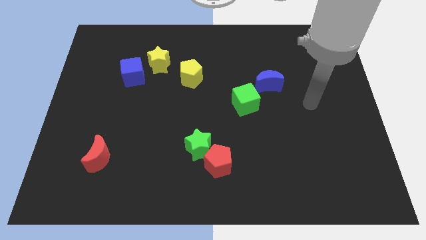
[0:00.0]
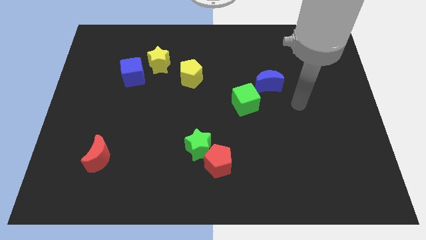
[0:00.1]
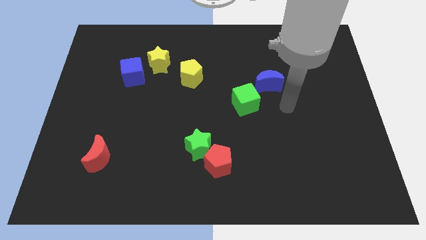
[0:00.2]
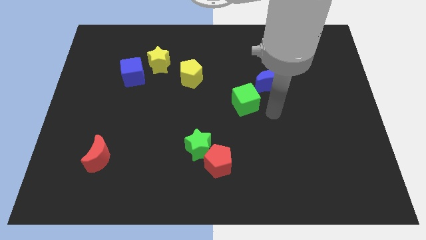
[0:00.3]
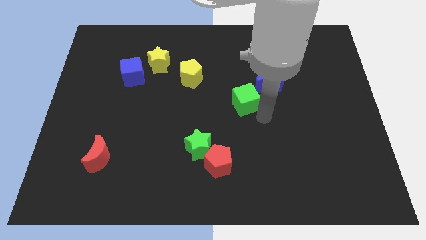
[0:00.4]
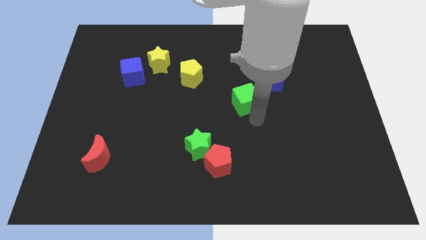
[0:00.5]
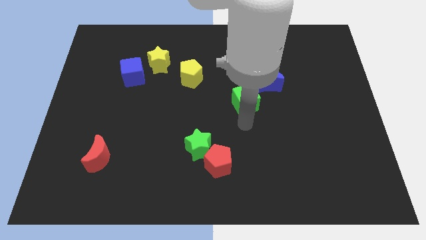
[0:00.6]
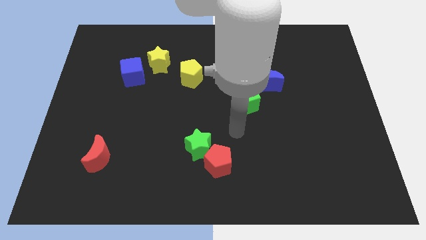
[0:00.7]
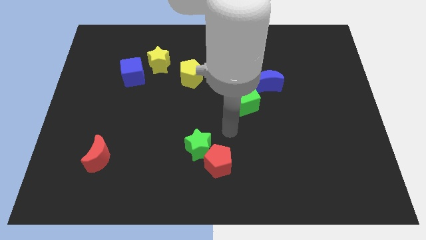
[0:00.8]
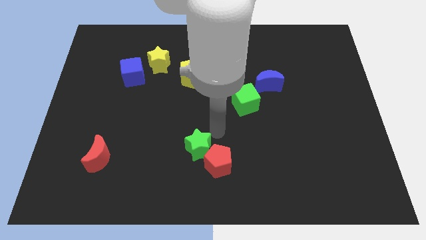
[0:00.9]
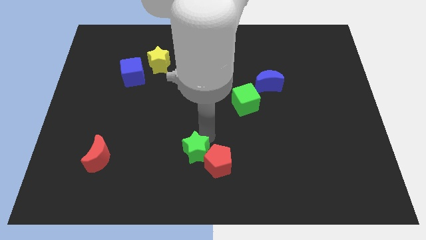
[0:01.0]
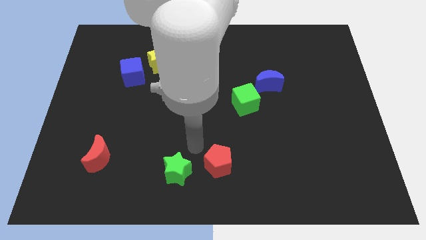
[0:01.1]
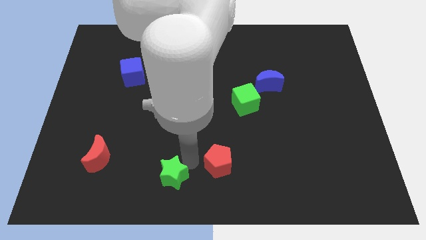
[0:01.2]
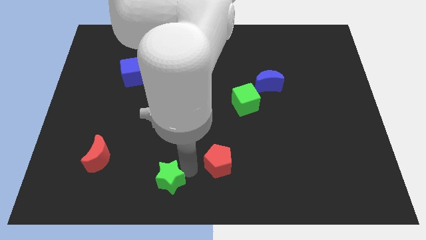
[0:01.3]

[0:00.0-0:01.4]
move the red pentagon away from the green star

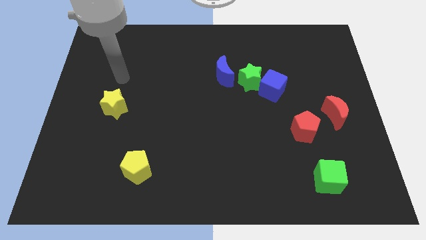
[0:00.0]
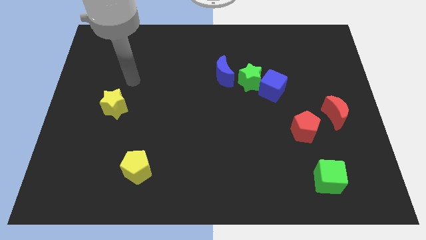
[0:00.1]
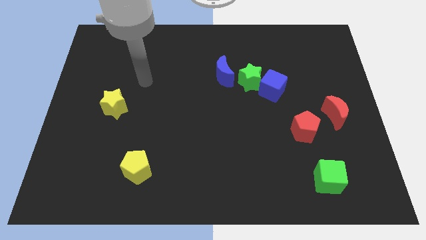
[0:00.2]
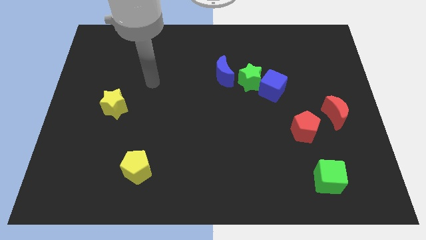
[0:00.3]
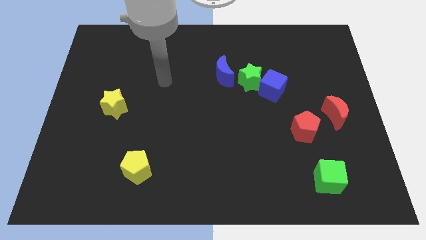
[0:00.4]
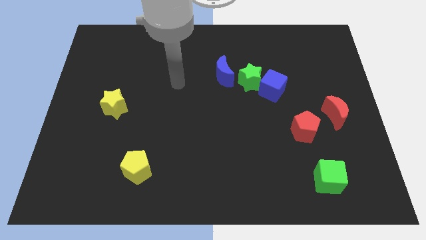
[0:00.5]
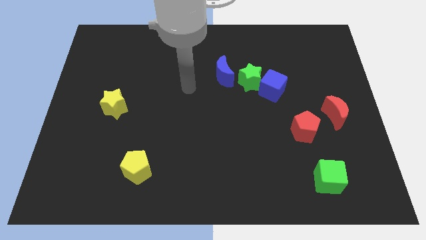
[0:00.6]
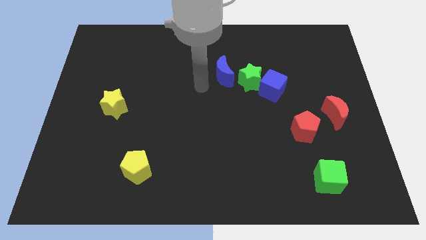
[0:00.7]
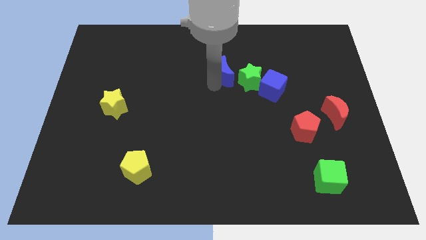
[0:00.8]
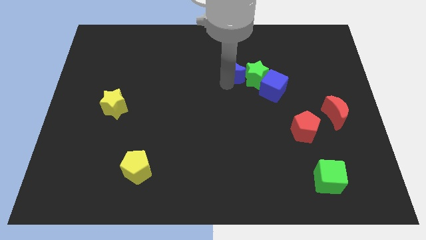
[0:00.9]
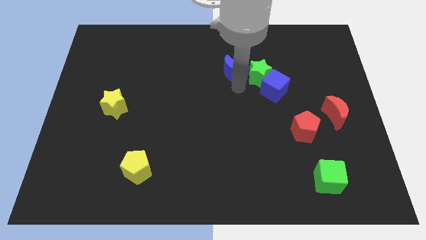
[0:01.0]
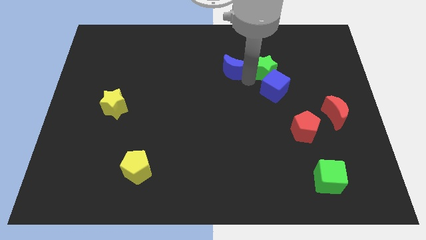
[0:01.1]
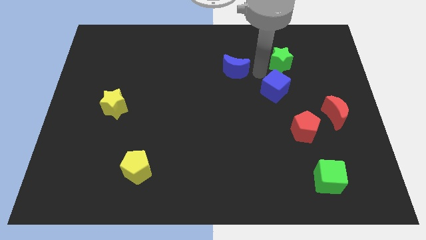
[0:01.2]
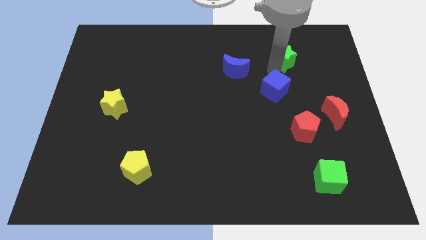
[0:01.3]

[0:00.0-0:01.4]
separate the blue cube from the green star

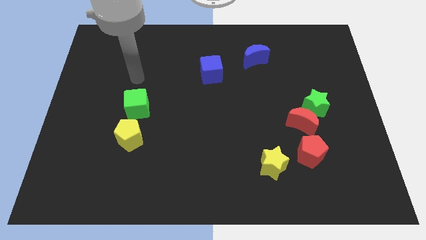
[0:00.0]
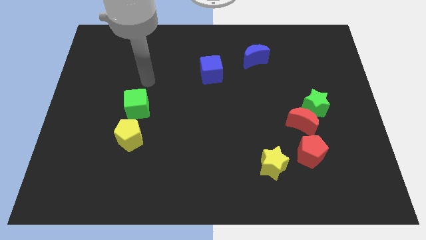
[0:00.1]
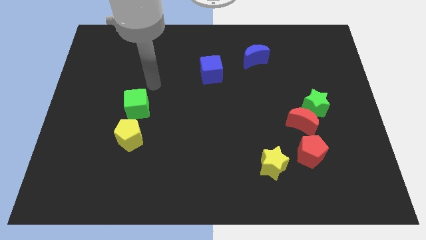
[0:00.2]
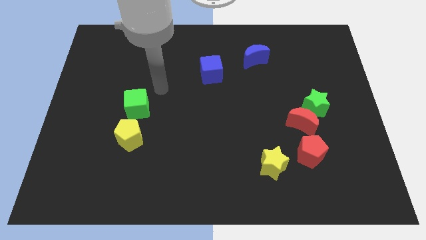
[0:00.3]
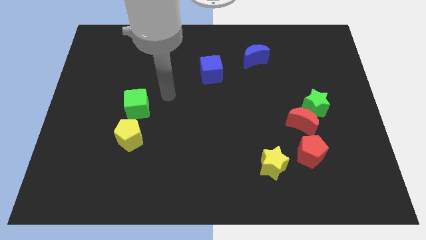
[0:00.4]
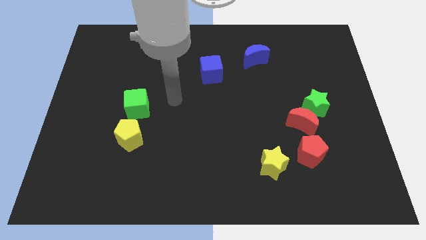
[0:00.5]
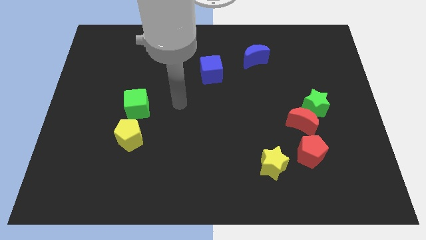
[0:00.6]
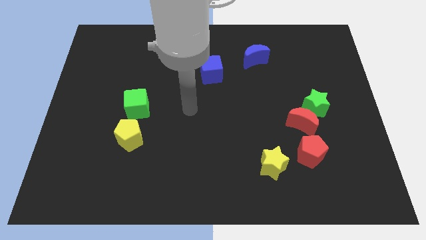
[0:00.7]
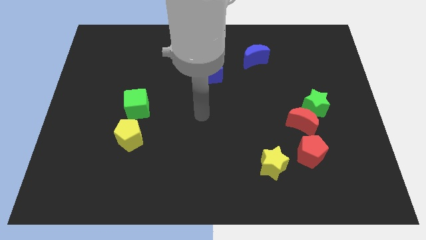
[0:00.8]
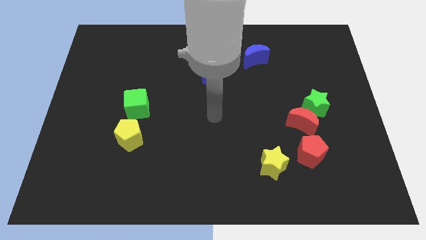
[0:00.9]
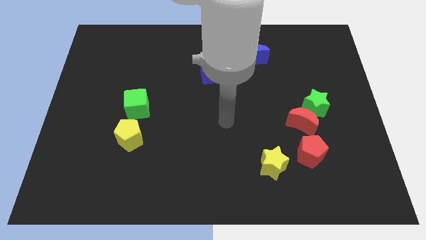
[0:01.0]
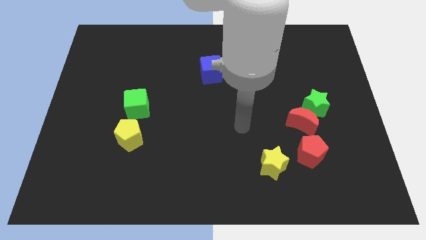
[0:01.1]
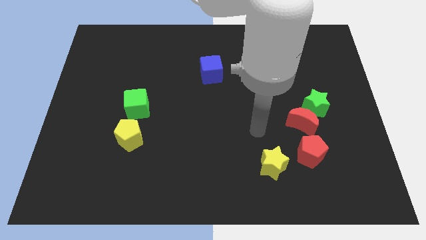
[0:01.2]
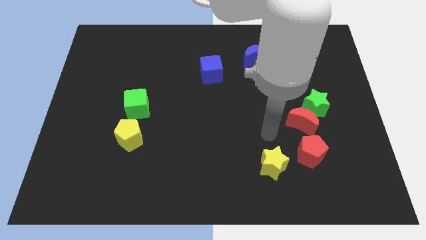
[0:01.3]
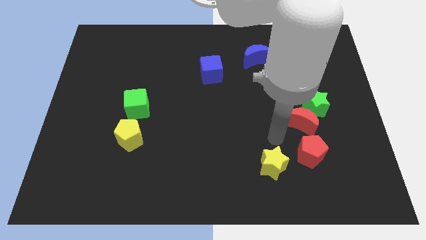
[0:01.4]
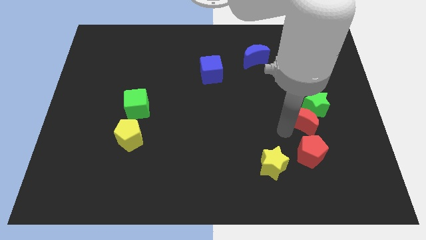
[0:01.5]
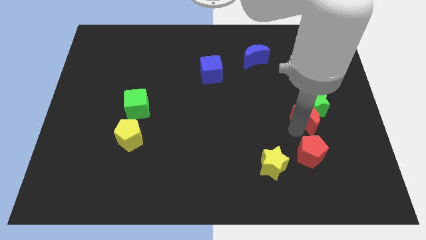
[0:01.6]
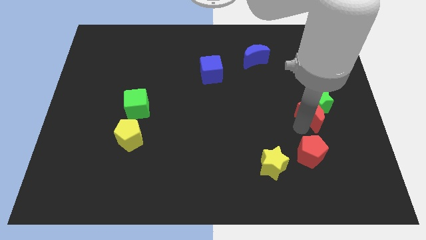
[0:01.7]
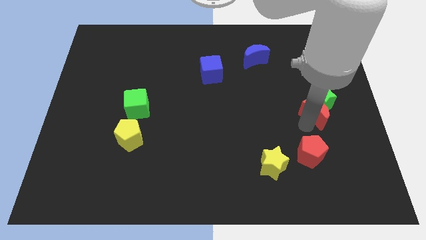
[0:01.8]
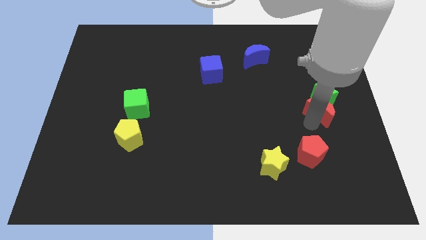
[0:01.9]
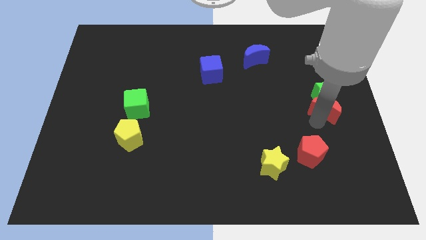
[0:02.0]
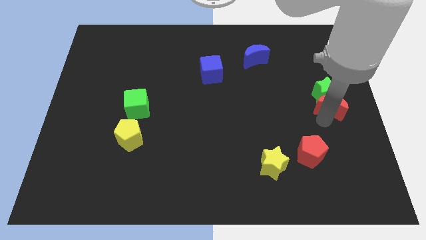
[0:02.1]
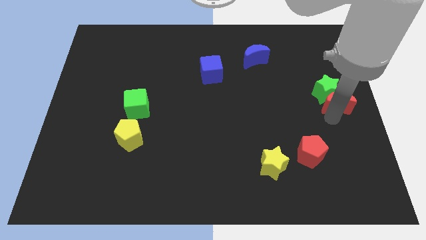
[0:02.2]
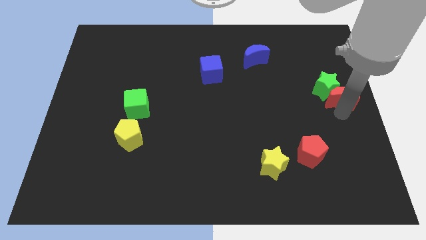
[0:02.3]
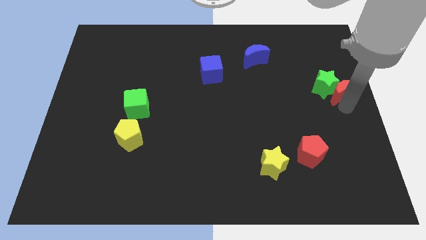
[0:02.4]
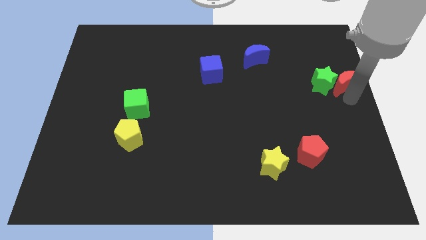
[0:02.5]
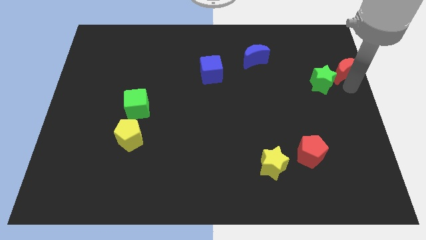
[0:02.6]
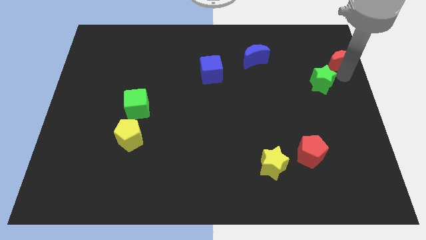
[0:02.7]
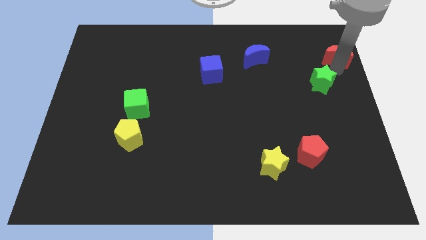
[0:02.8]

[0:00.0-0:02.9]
pull the green star apart from the red moon

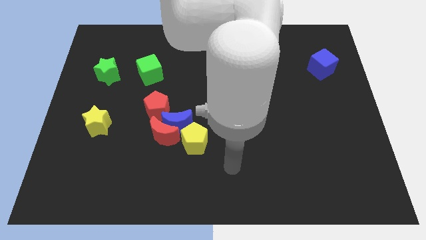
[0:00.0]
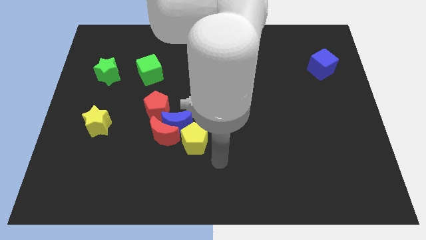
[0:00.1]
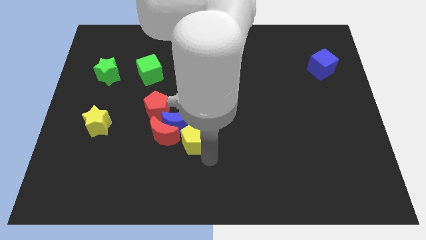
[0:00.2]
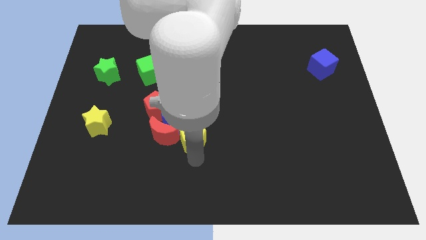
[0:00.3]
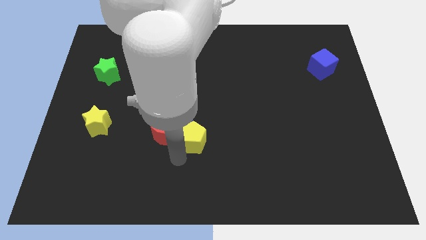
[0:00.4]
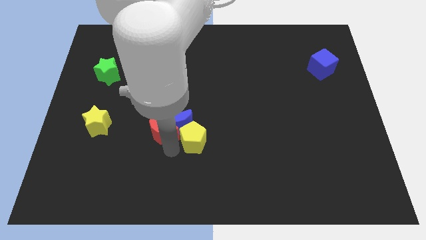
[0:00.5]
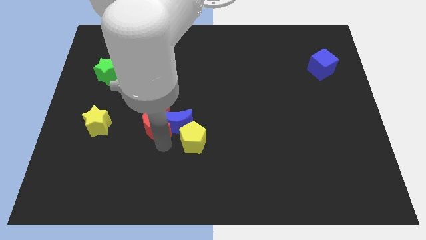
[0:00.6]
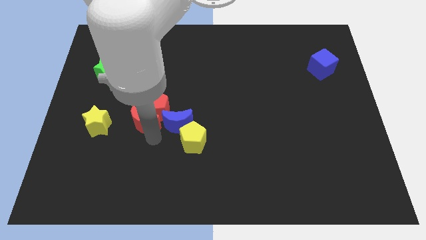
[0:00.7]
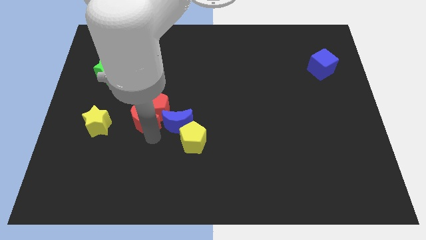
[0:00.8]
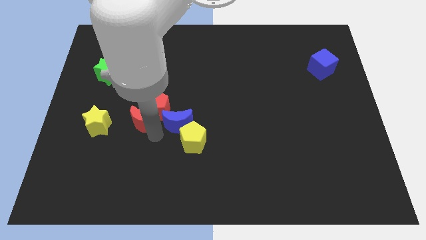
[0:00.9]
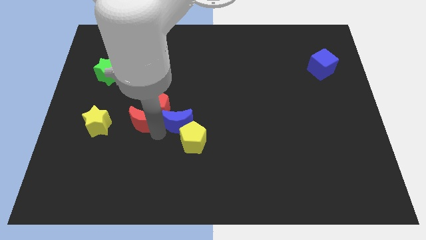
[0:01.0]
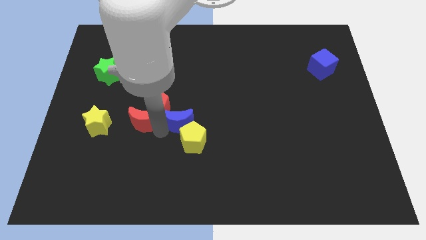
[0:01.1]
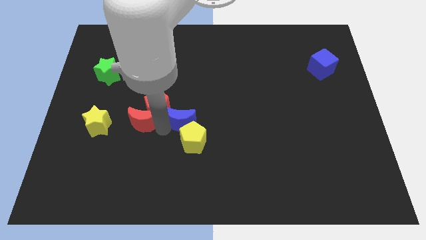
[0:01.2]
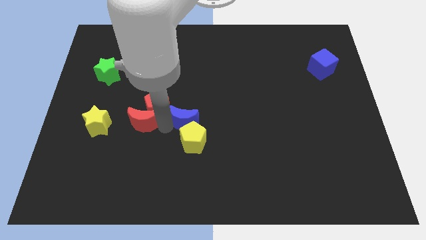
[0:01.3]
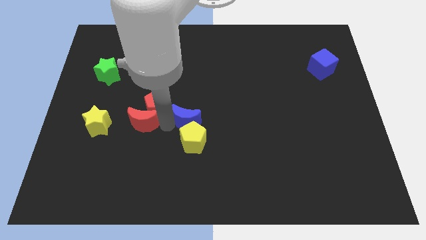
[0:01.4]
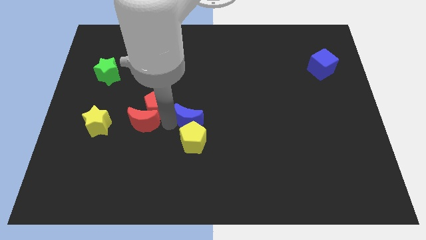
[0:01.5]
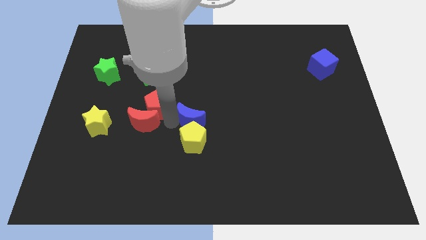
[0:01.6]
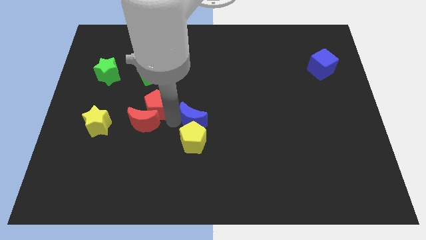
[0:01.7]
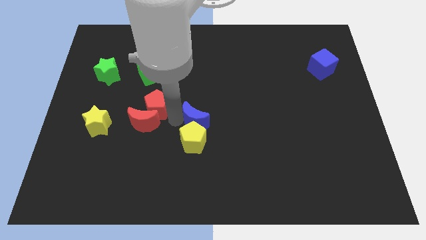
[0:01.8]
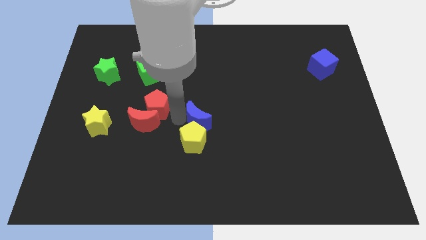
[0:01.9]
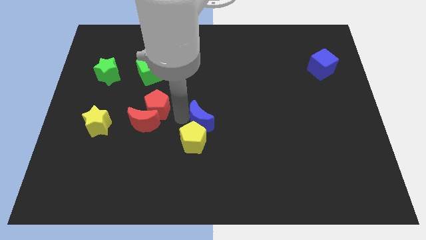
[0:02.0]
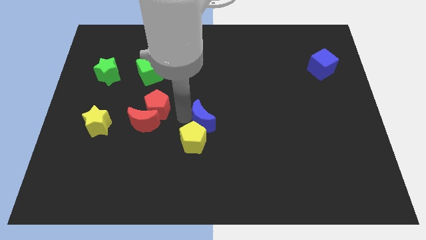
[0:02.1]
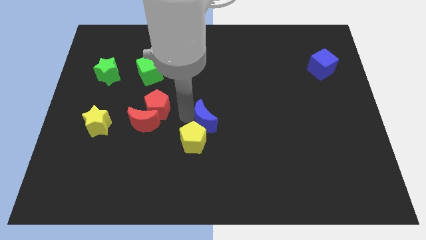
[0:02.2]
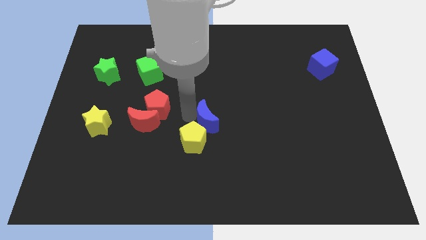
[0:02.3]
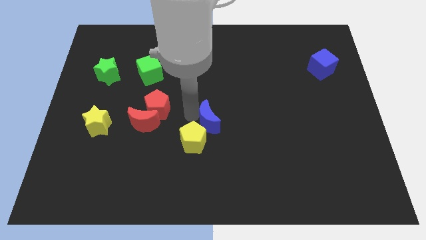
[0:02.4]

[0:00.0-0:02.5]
pull the blue moon apart from the clump

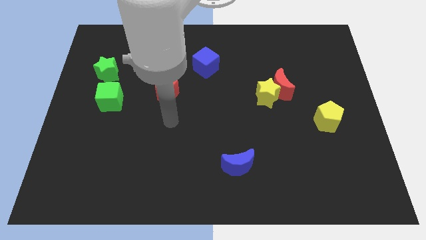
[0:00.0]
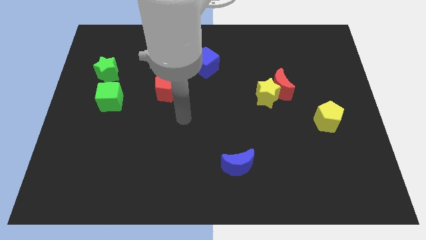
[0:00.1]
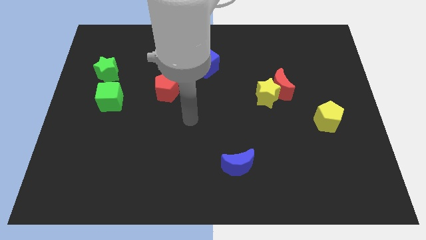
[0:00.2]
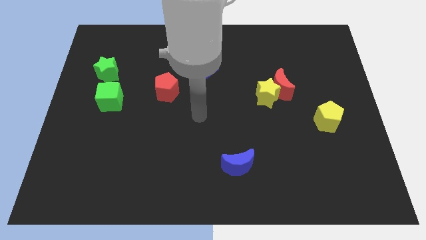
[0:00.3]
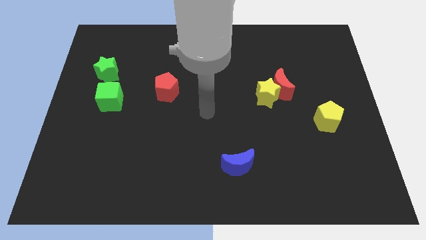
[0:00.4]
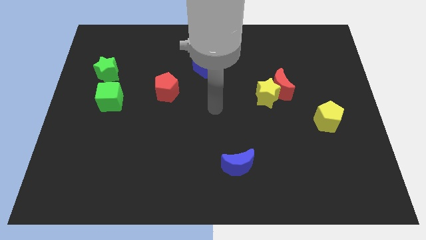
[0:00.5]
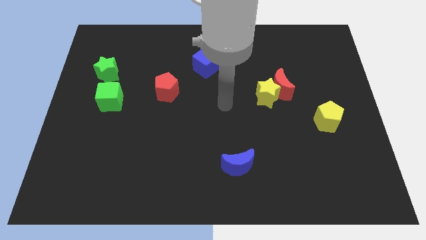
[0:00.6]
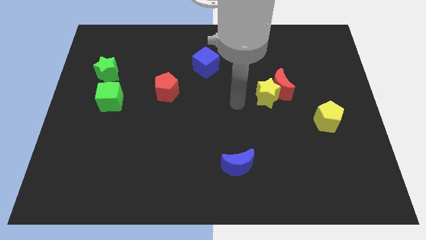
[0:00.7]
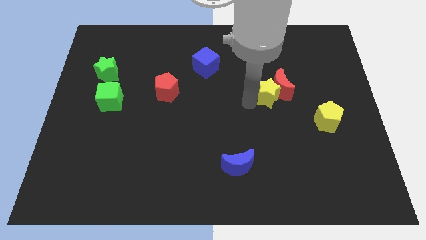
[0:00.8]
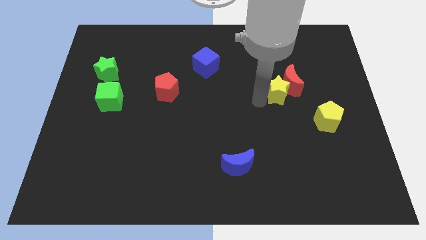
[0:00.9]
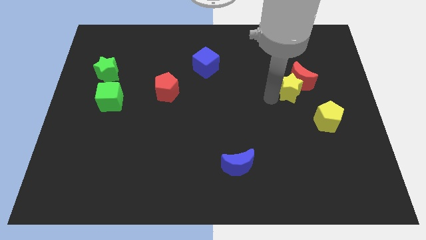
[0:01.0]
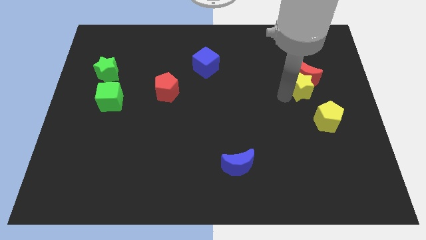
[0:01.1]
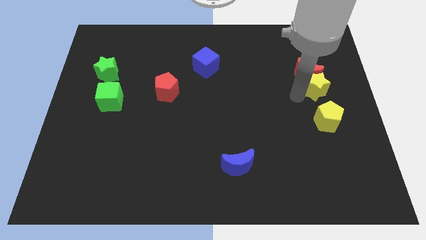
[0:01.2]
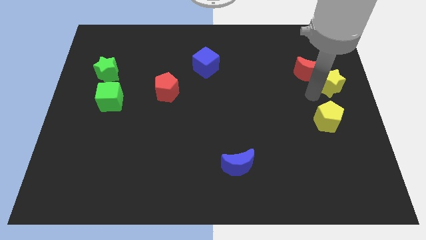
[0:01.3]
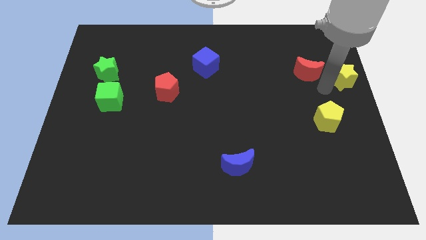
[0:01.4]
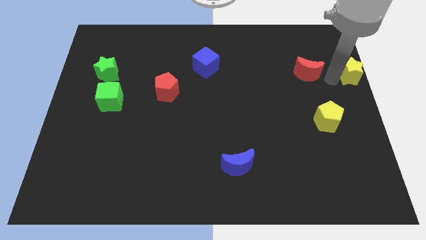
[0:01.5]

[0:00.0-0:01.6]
pull the red moon apart from the yellow star
